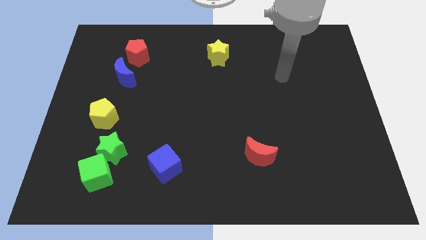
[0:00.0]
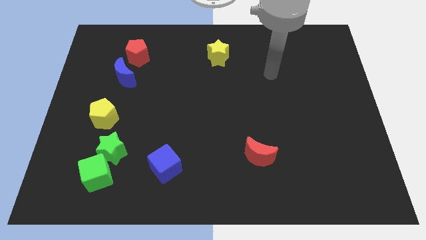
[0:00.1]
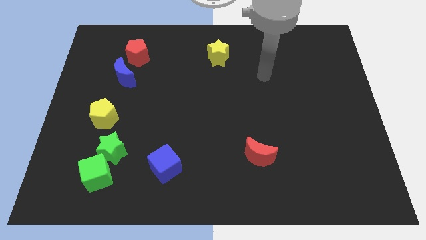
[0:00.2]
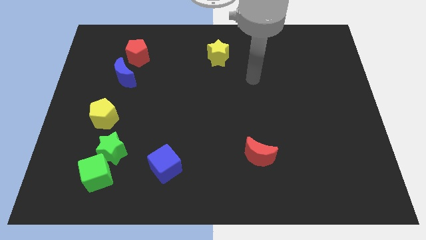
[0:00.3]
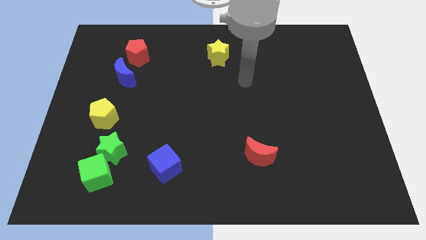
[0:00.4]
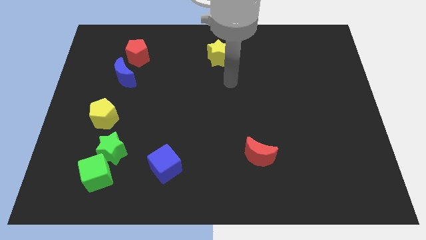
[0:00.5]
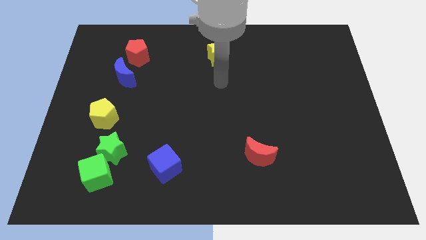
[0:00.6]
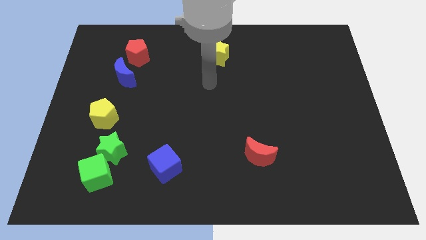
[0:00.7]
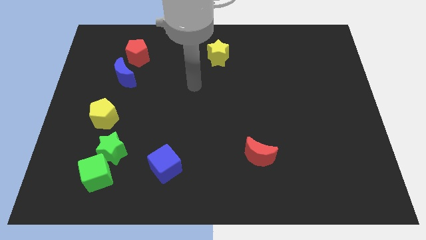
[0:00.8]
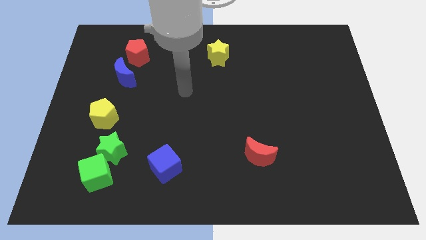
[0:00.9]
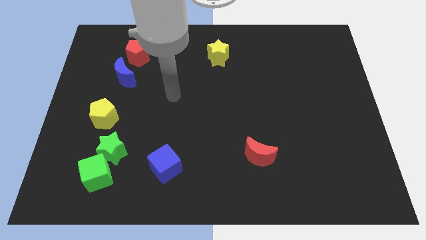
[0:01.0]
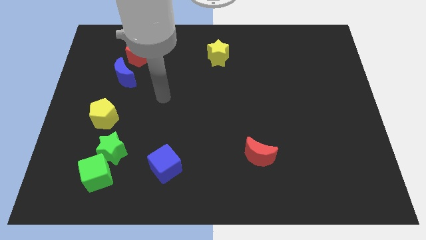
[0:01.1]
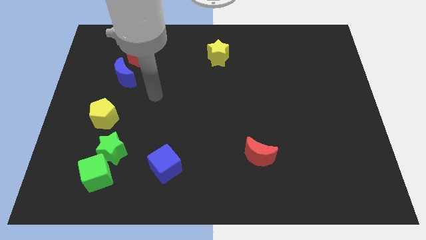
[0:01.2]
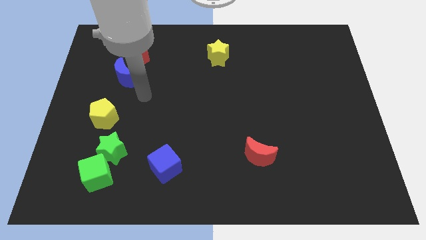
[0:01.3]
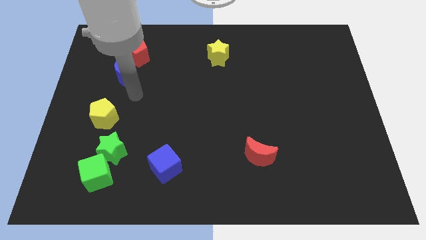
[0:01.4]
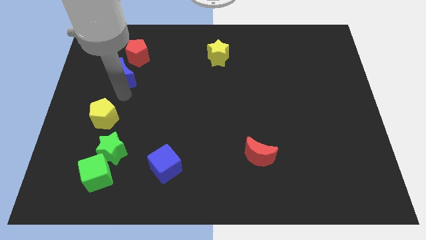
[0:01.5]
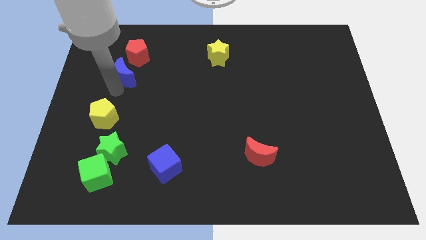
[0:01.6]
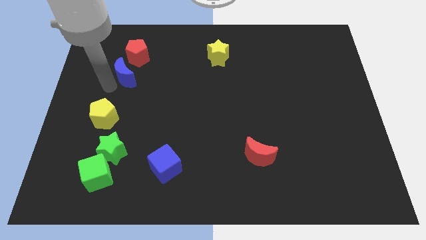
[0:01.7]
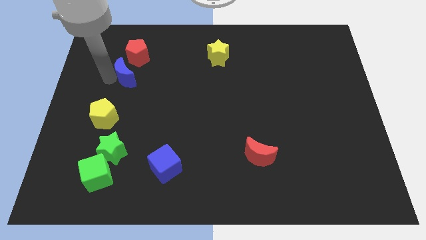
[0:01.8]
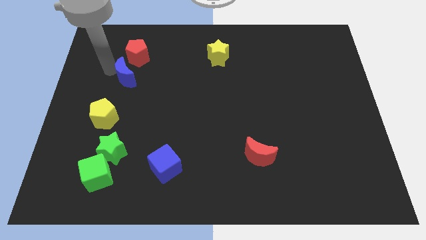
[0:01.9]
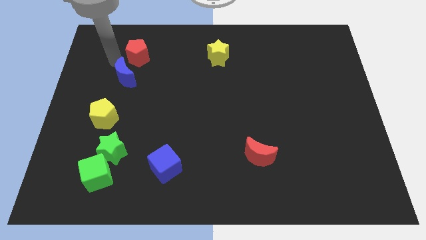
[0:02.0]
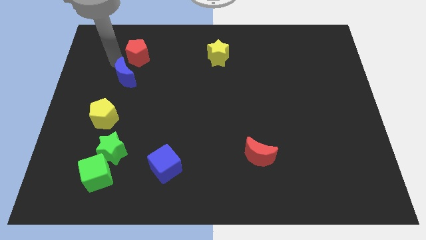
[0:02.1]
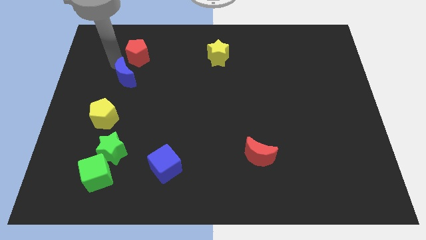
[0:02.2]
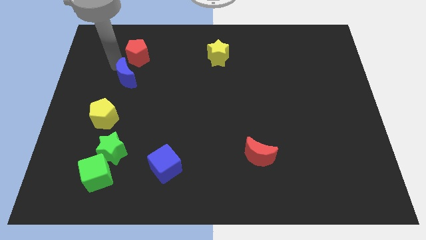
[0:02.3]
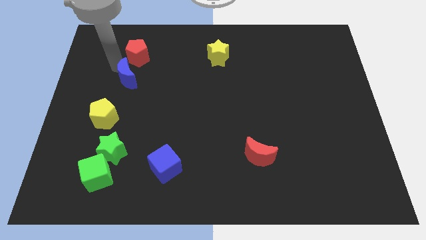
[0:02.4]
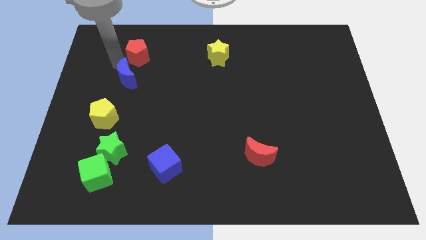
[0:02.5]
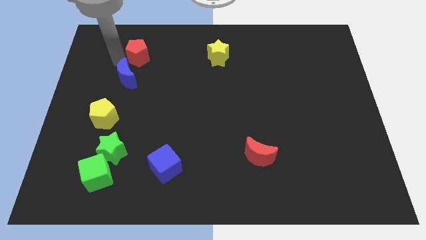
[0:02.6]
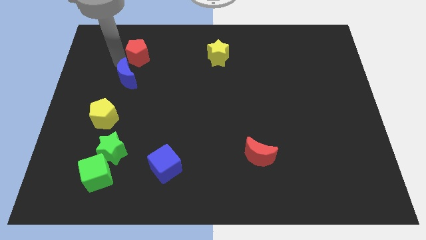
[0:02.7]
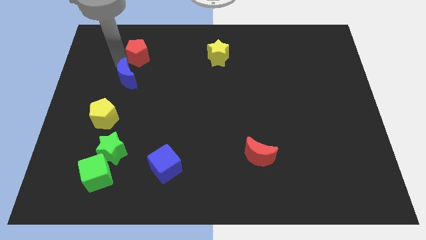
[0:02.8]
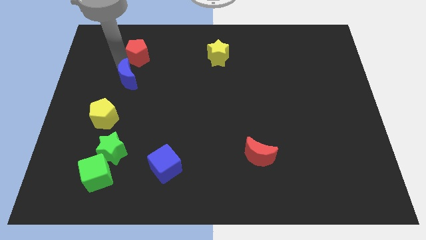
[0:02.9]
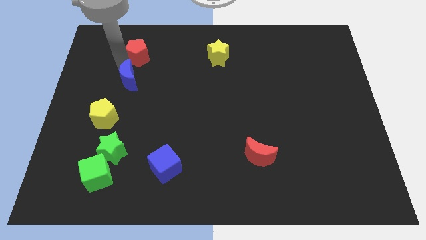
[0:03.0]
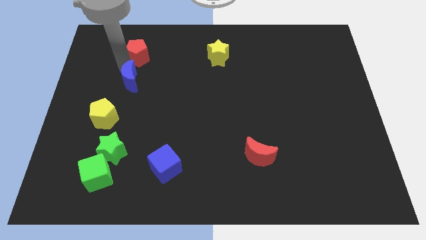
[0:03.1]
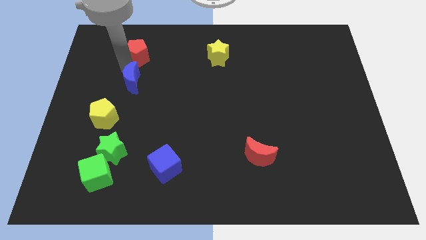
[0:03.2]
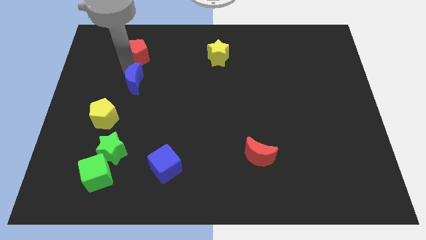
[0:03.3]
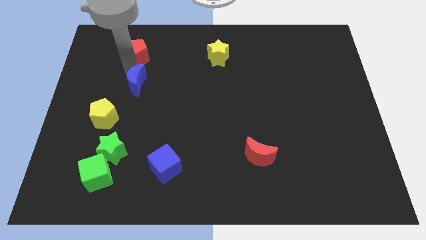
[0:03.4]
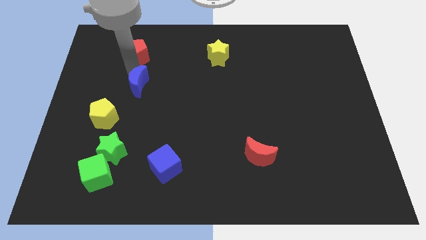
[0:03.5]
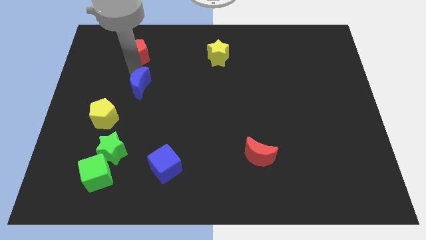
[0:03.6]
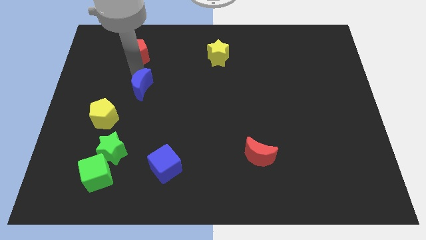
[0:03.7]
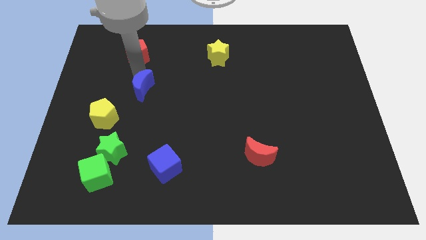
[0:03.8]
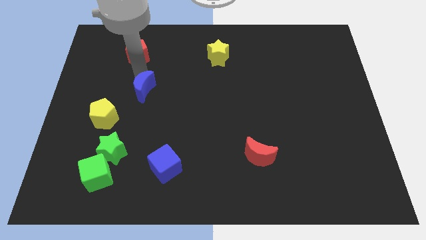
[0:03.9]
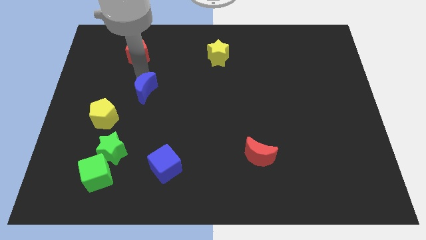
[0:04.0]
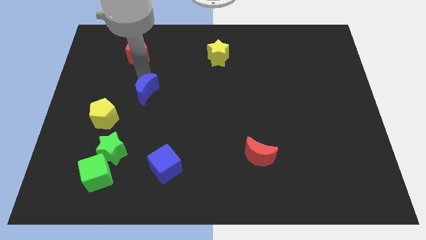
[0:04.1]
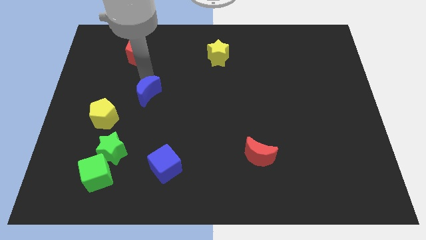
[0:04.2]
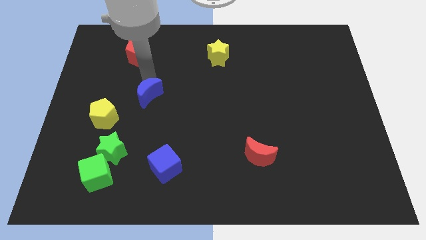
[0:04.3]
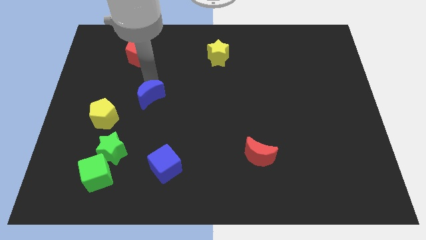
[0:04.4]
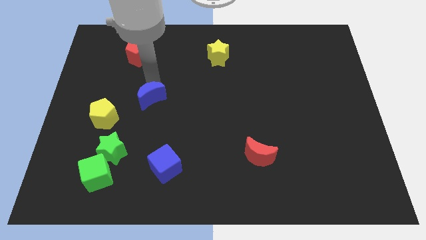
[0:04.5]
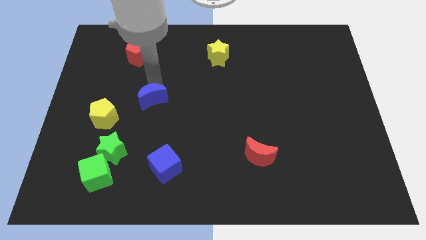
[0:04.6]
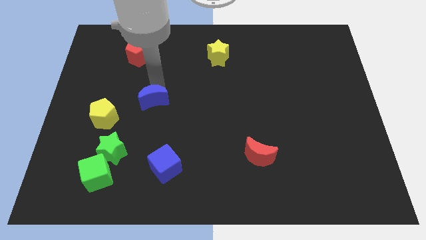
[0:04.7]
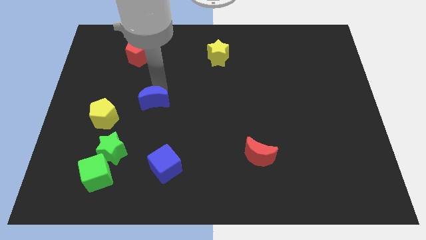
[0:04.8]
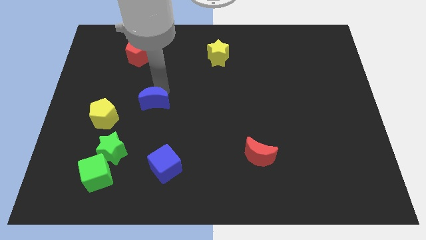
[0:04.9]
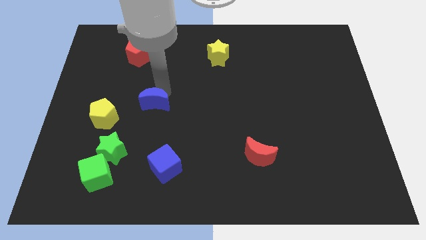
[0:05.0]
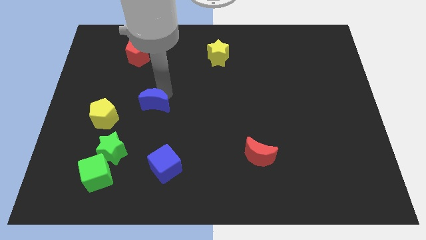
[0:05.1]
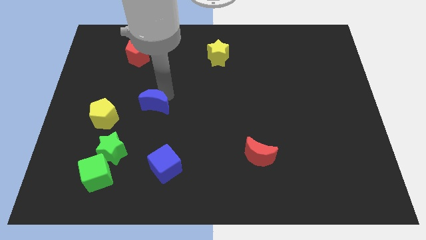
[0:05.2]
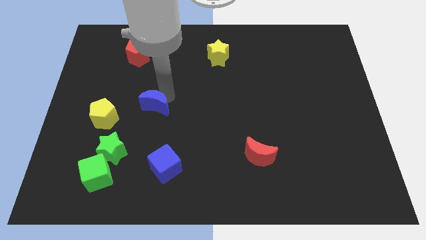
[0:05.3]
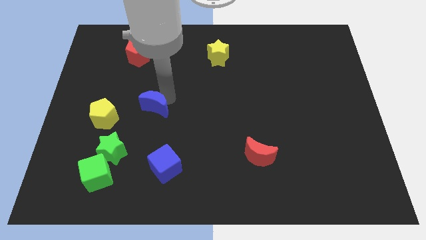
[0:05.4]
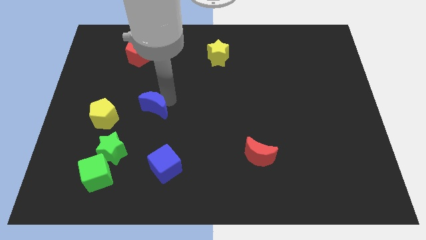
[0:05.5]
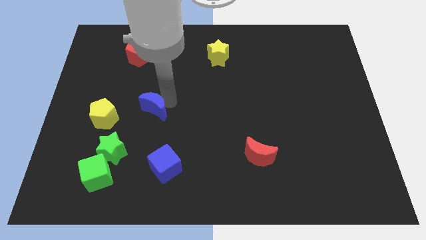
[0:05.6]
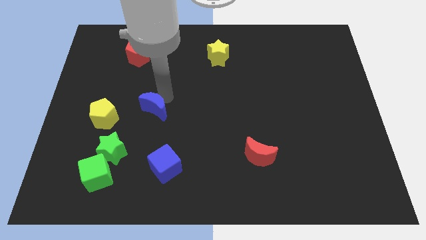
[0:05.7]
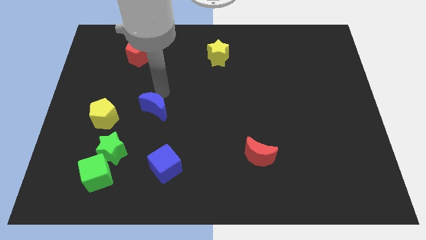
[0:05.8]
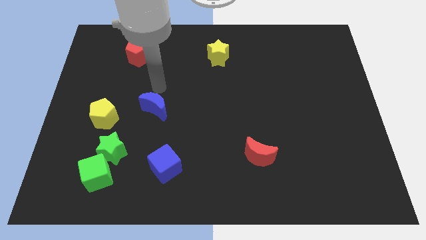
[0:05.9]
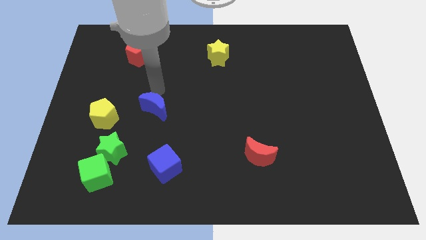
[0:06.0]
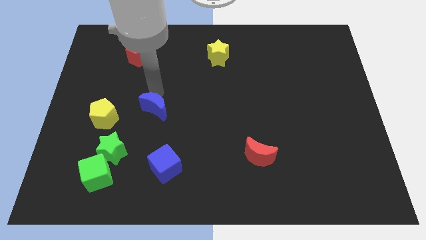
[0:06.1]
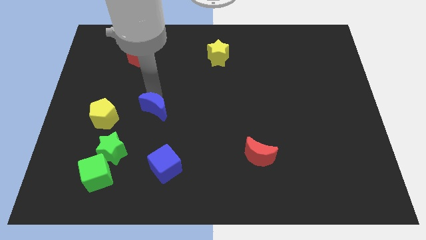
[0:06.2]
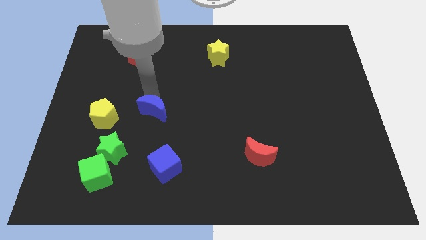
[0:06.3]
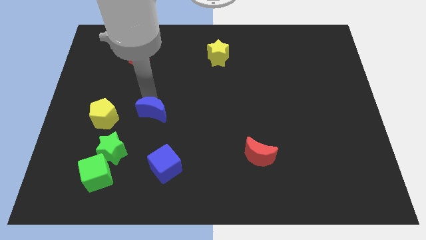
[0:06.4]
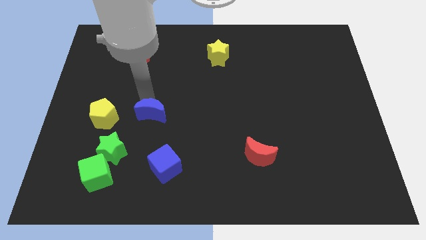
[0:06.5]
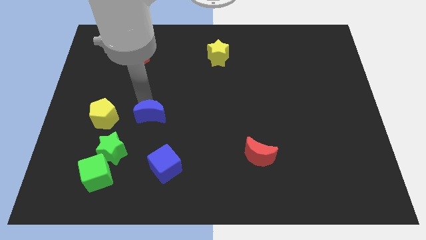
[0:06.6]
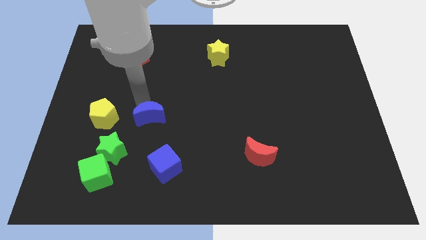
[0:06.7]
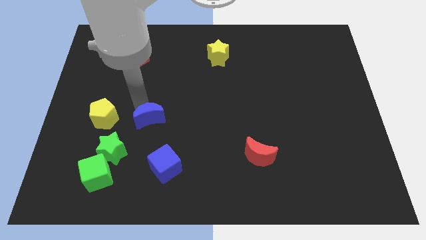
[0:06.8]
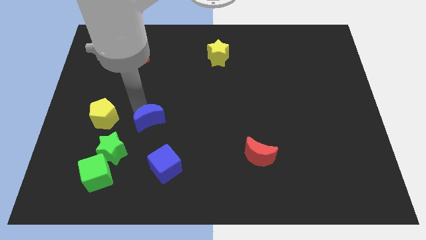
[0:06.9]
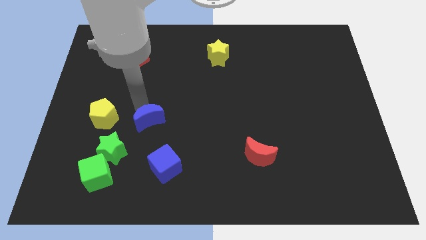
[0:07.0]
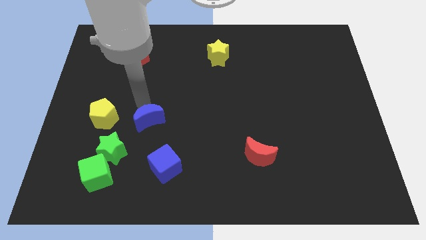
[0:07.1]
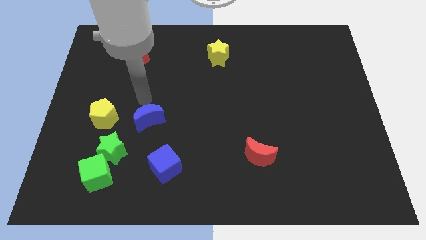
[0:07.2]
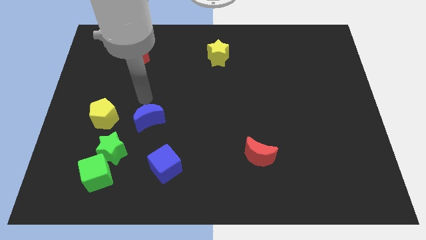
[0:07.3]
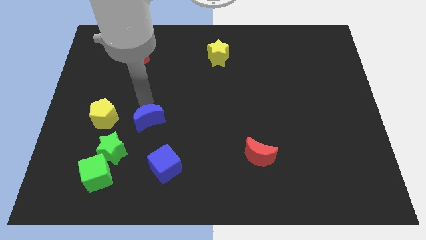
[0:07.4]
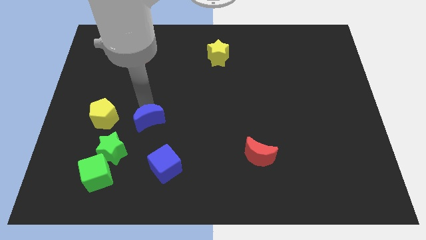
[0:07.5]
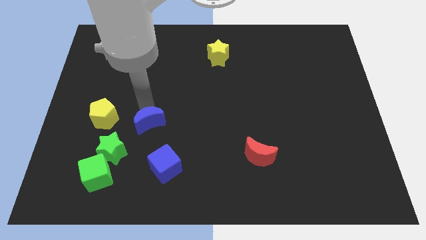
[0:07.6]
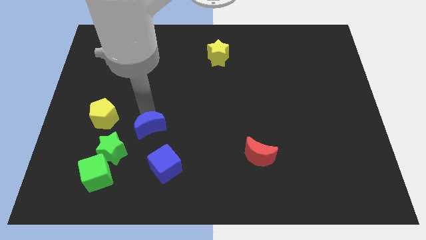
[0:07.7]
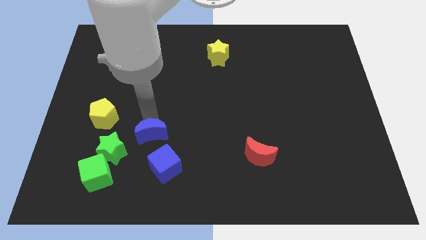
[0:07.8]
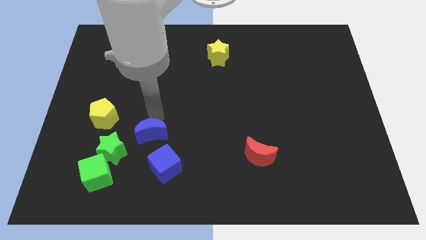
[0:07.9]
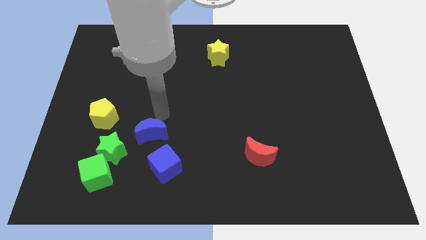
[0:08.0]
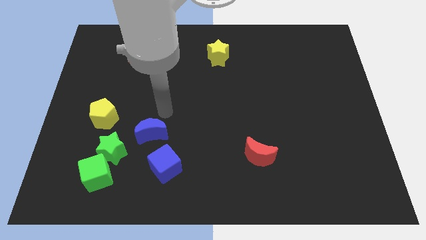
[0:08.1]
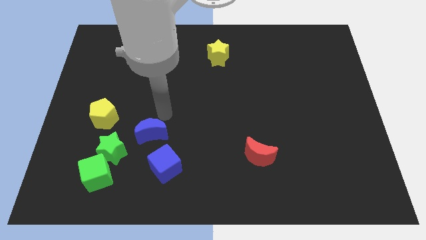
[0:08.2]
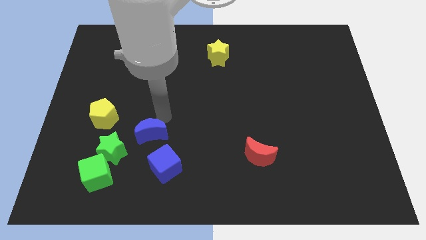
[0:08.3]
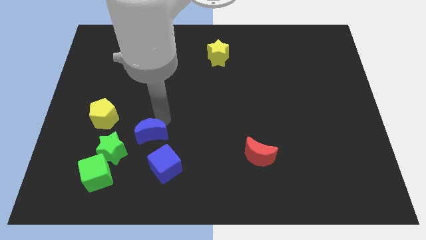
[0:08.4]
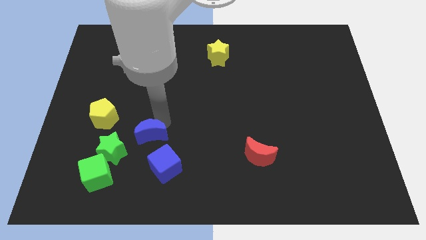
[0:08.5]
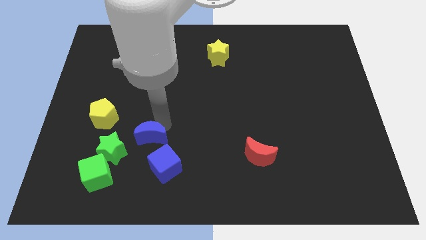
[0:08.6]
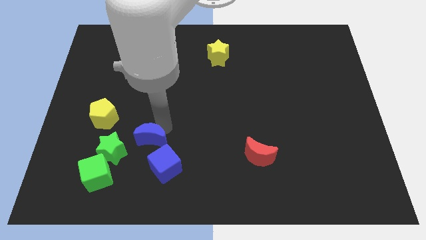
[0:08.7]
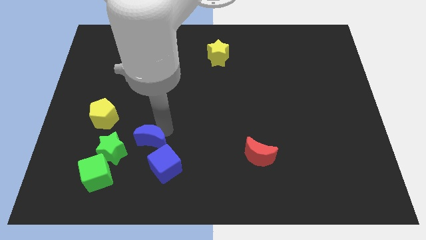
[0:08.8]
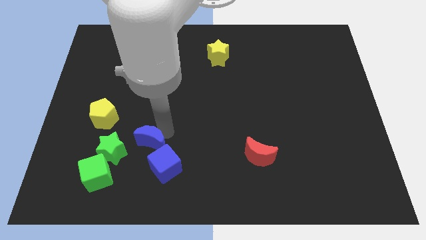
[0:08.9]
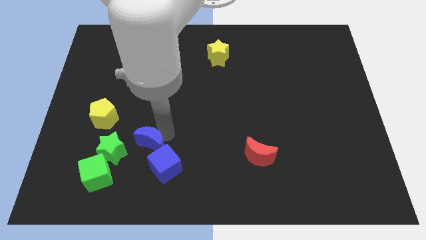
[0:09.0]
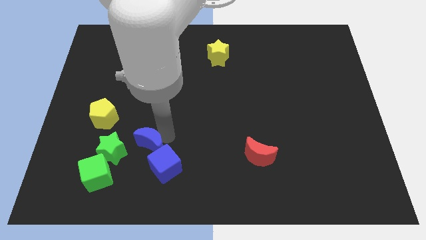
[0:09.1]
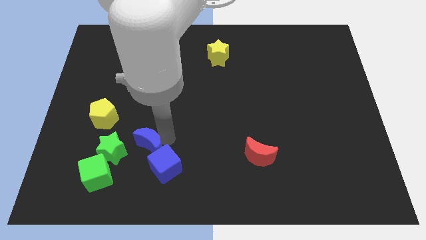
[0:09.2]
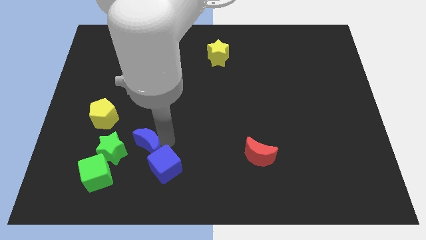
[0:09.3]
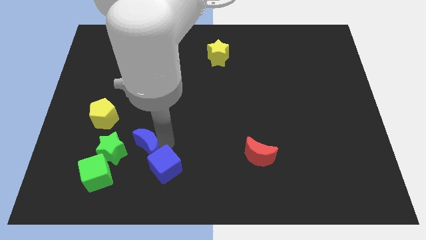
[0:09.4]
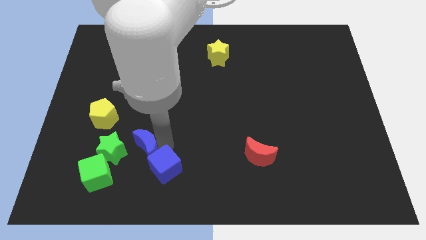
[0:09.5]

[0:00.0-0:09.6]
slide the blue moon left of the blue cube
